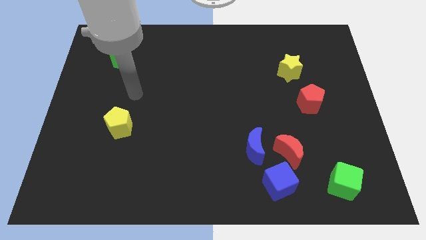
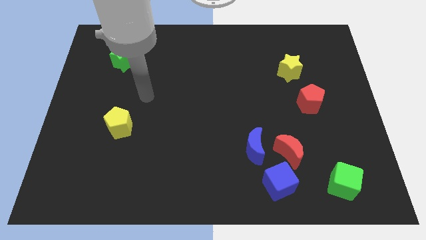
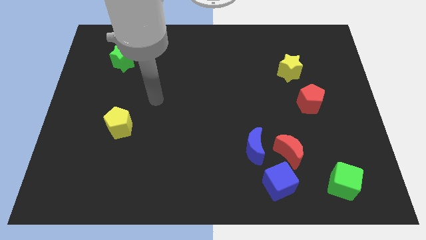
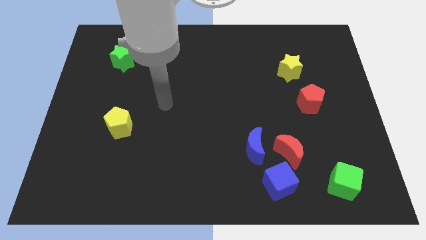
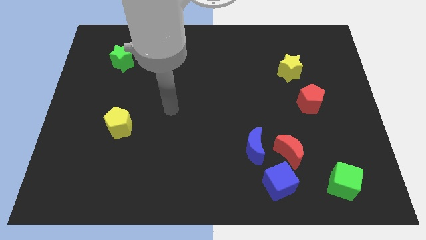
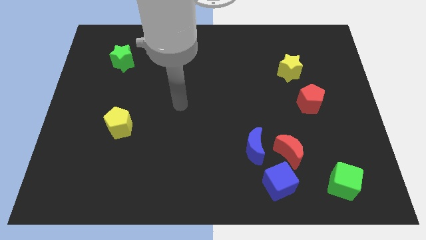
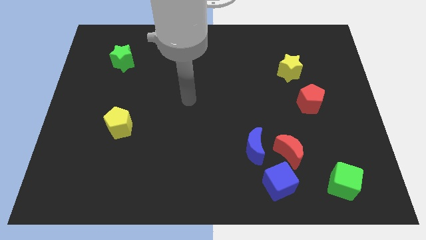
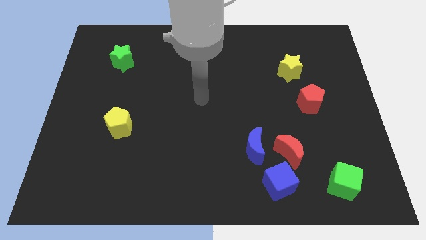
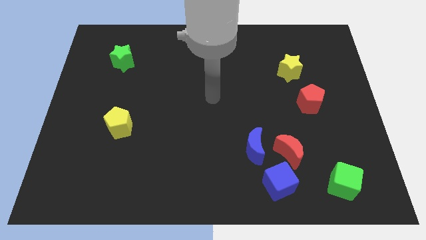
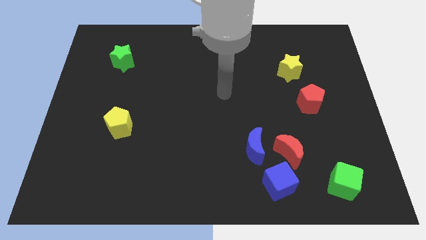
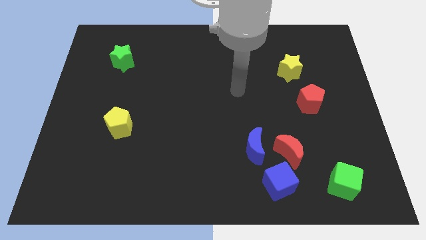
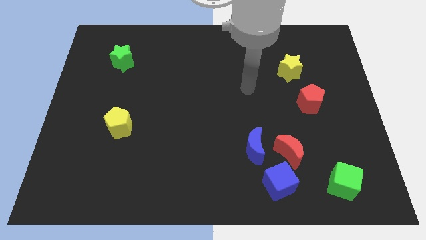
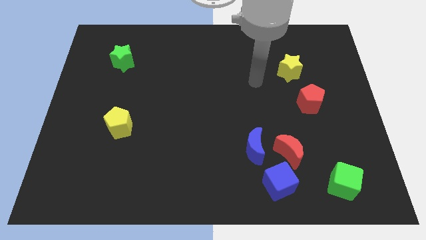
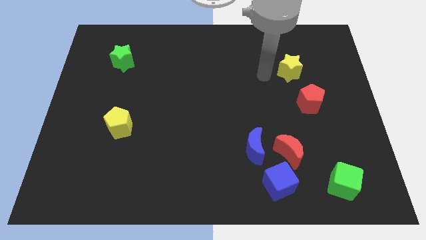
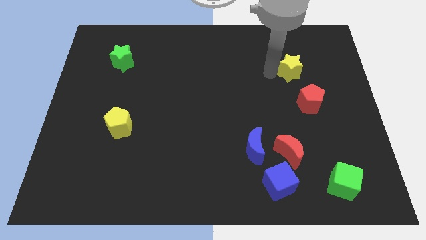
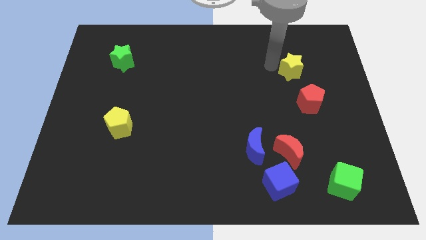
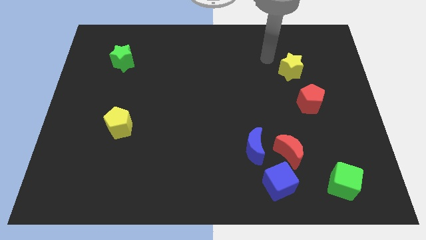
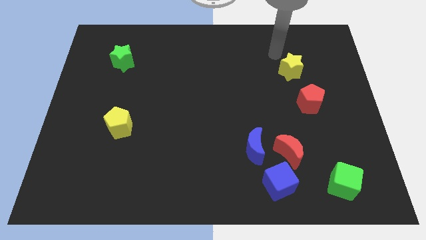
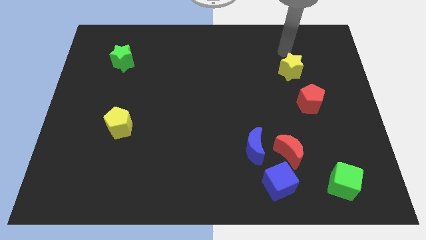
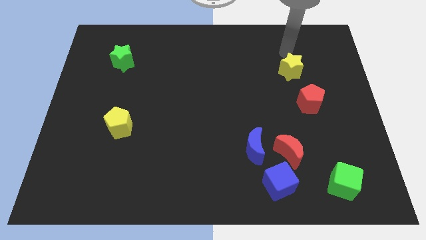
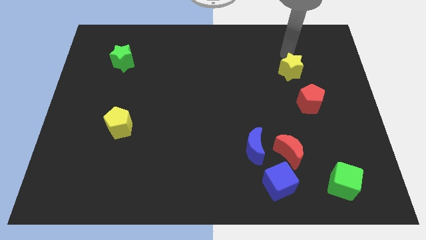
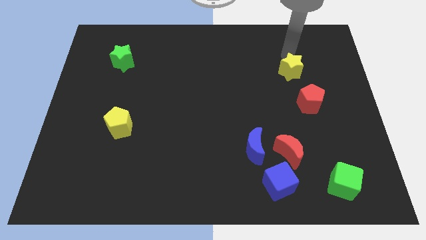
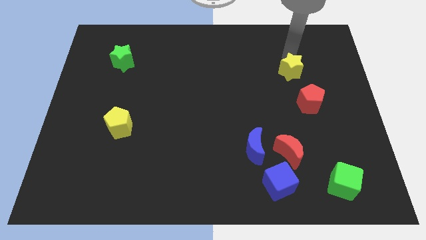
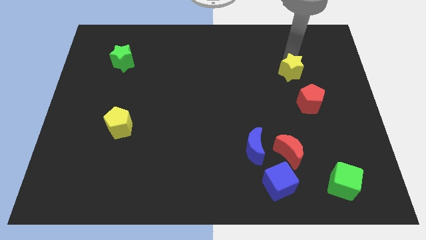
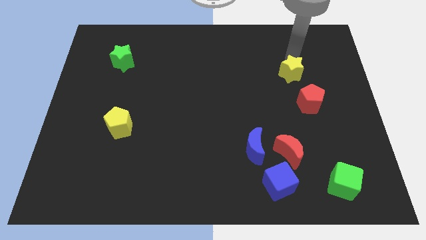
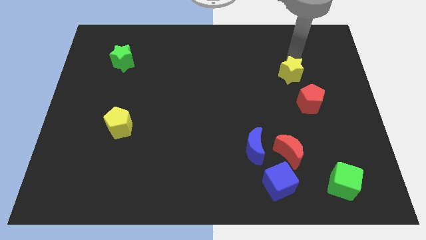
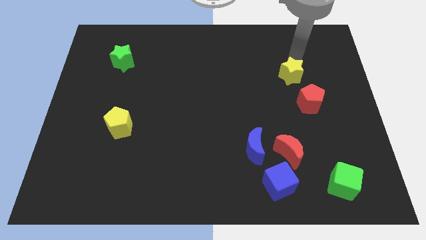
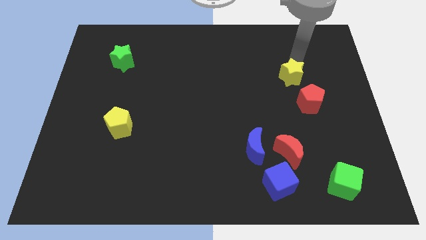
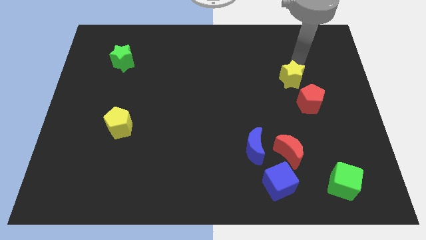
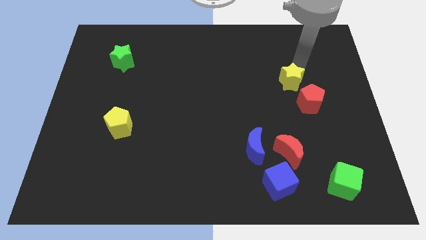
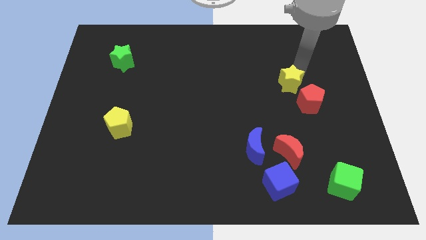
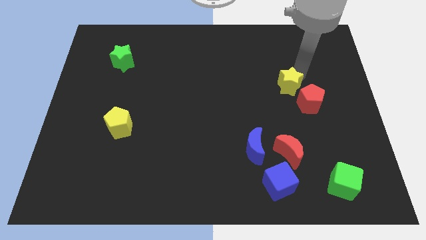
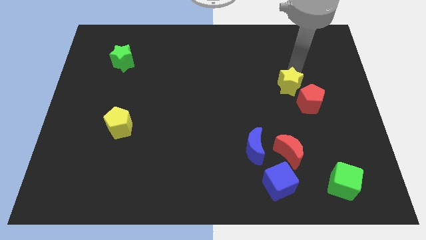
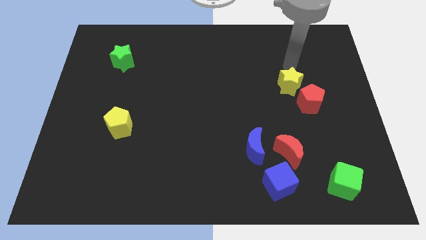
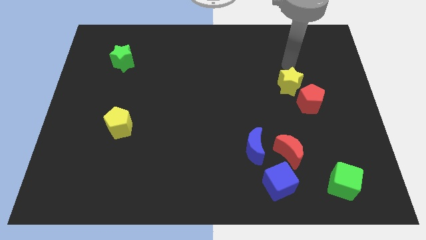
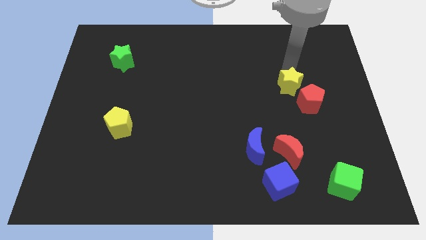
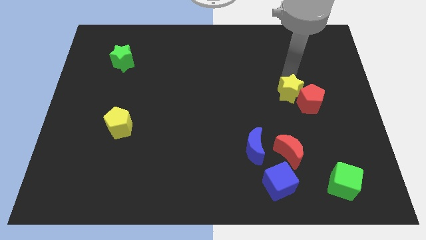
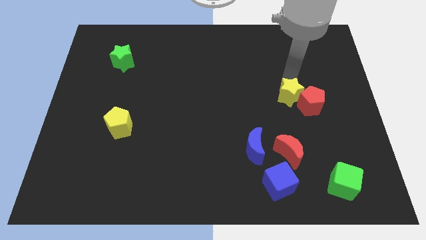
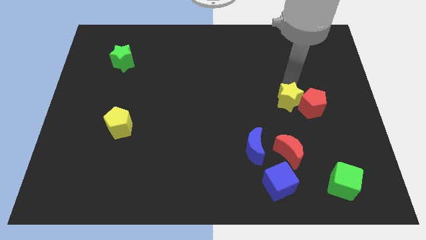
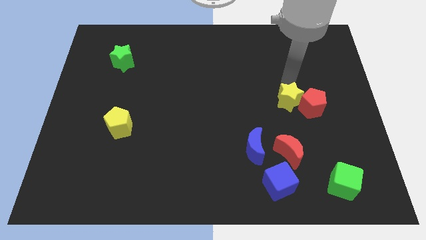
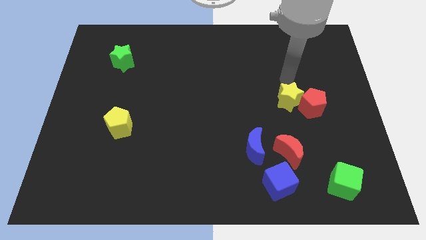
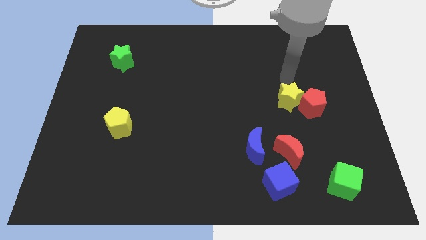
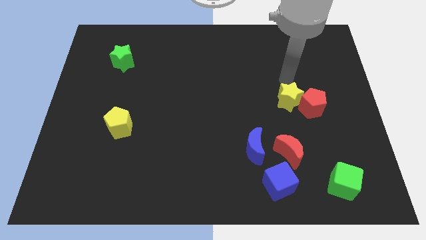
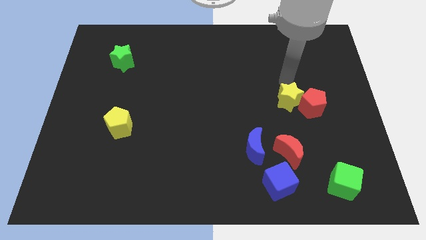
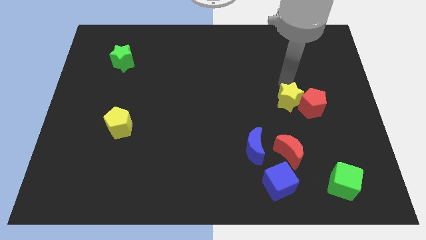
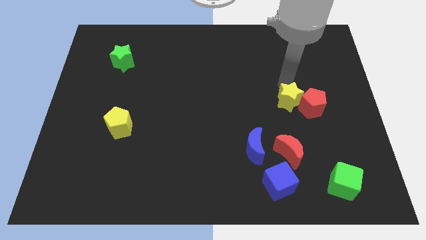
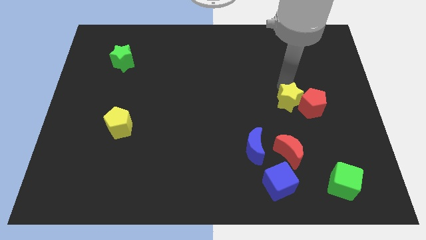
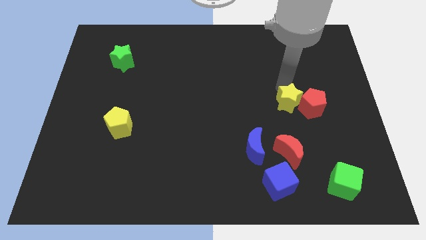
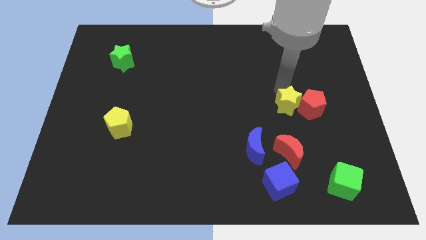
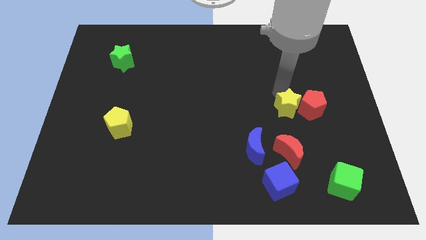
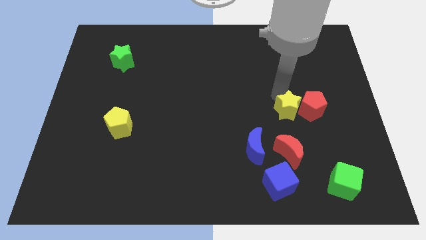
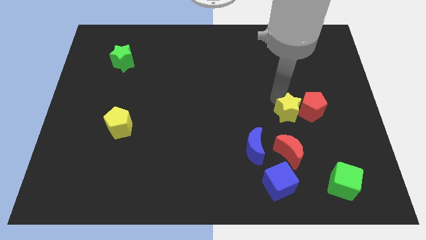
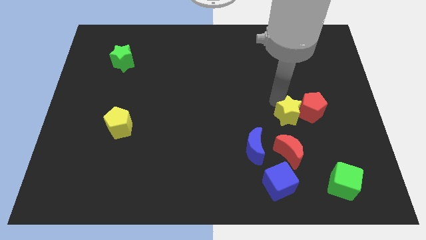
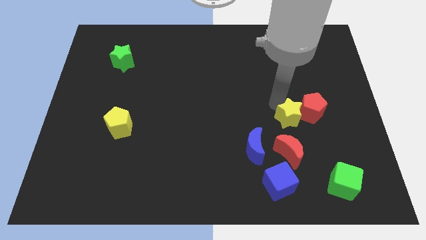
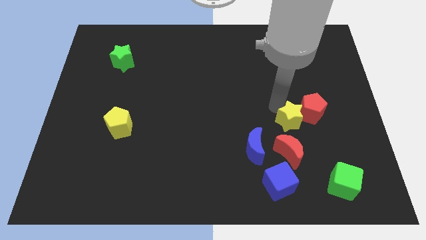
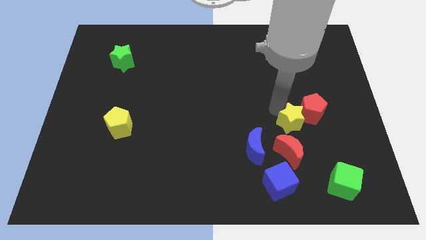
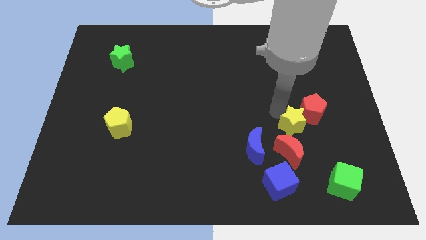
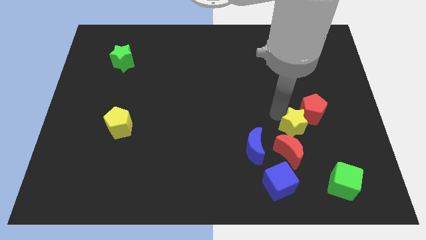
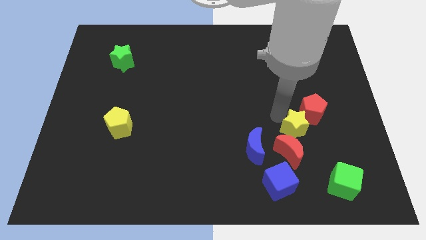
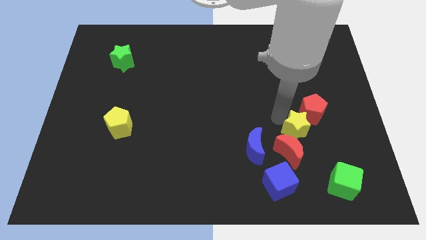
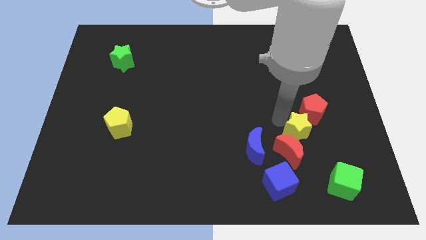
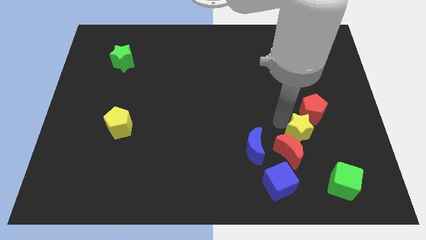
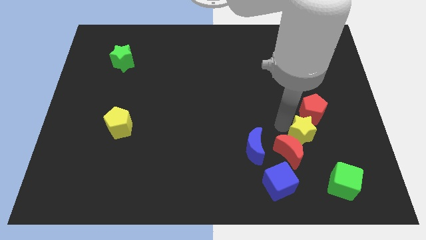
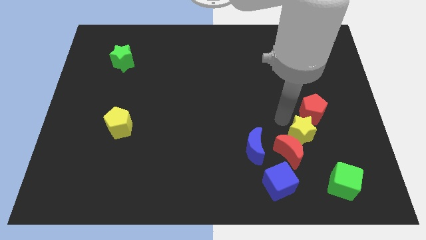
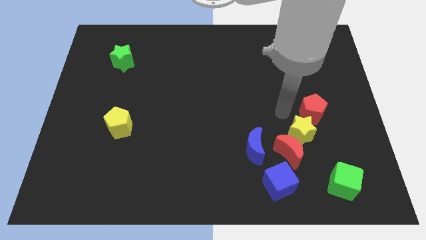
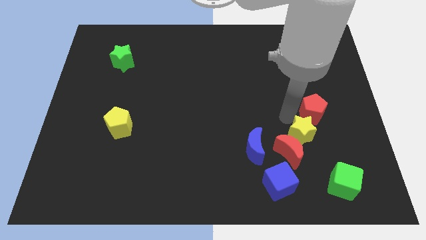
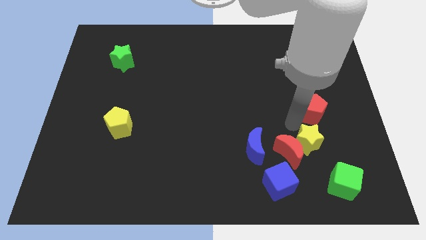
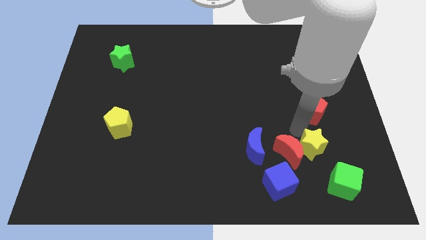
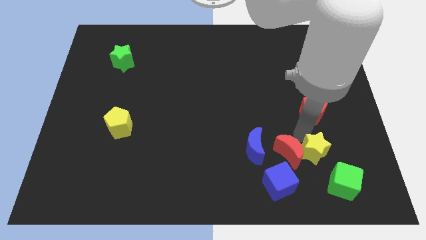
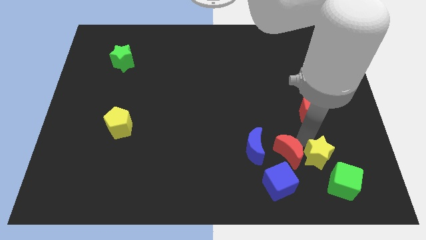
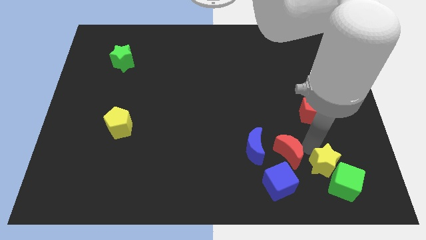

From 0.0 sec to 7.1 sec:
slide the yellow star to the green cube
